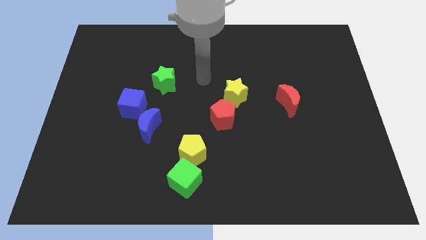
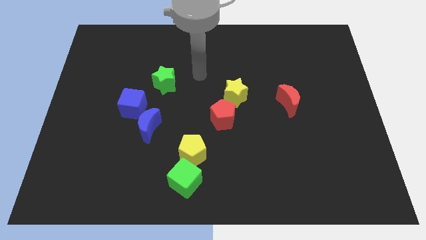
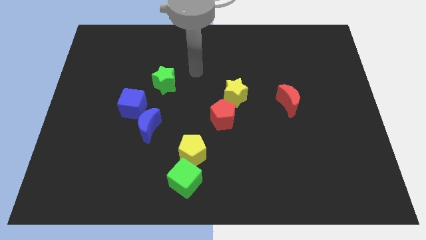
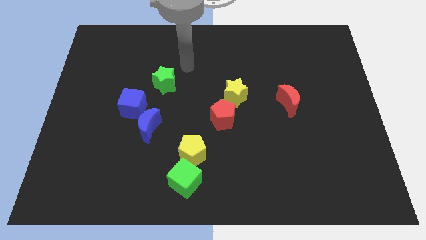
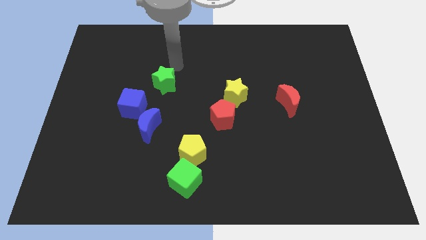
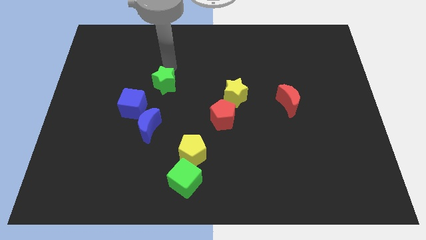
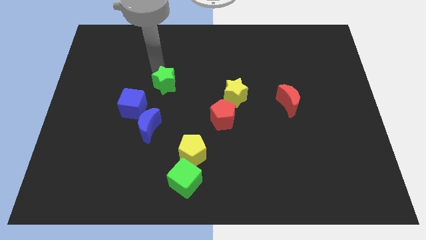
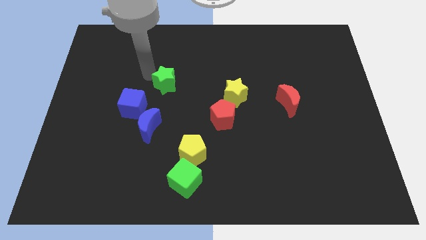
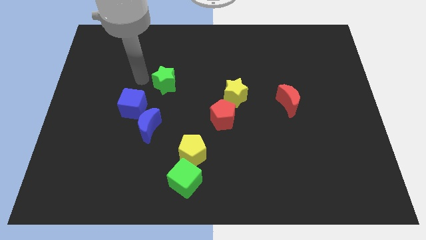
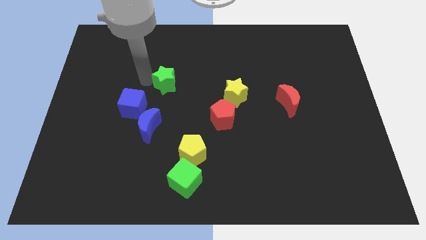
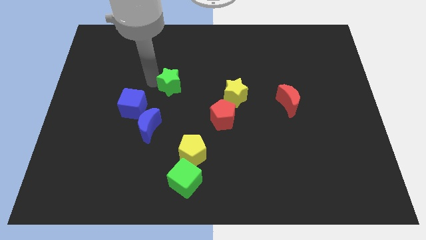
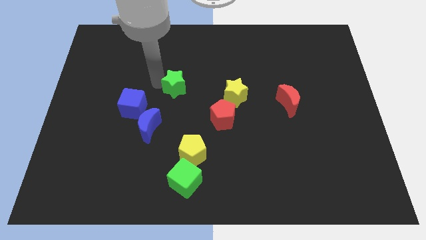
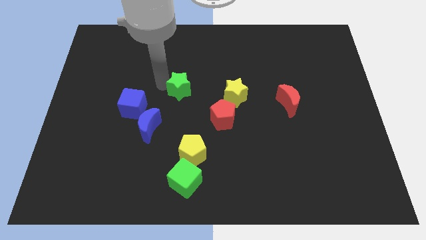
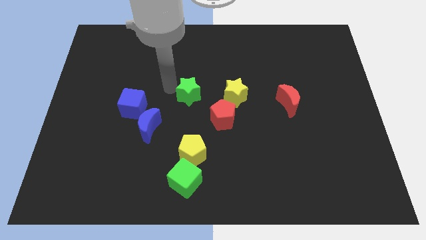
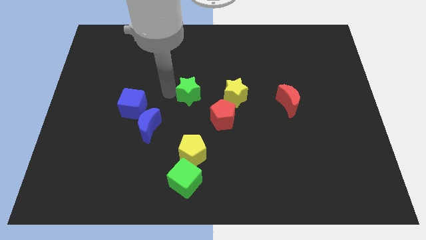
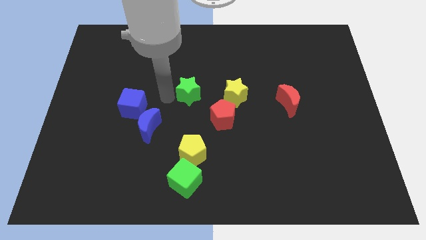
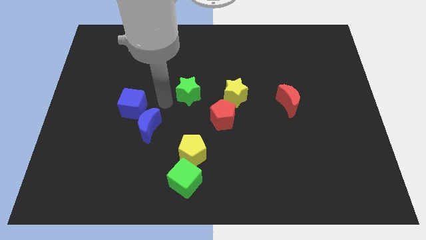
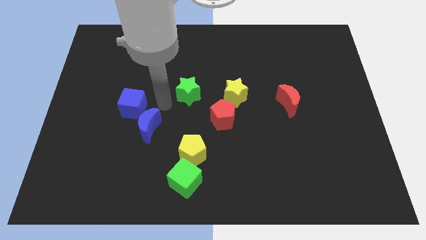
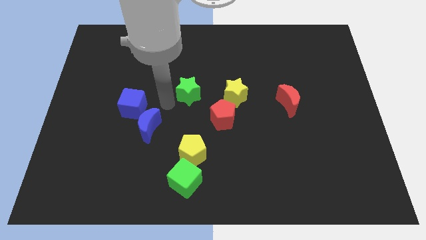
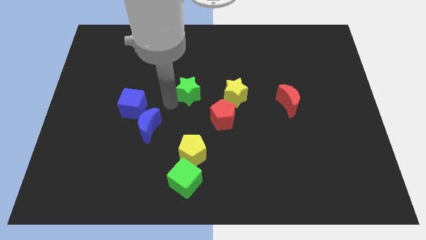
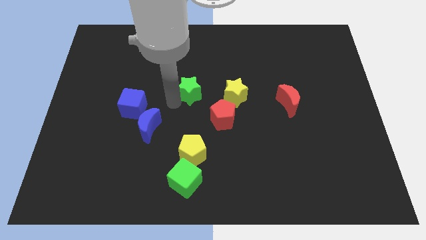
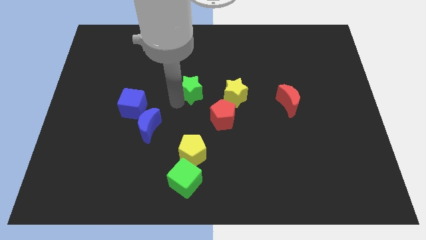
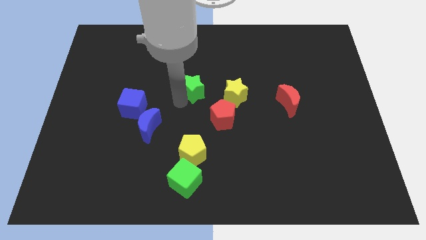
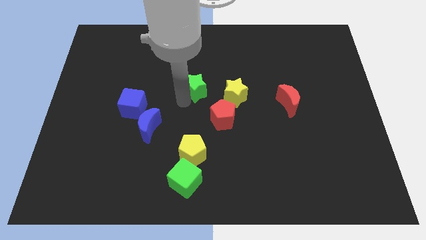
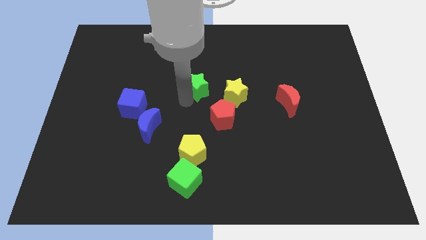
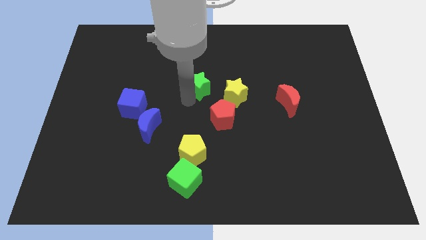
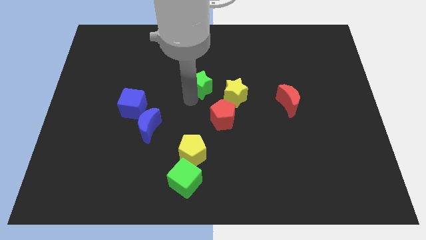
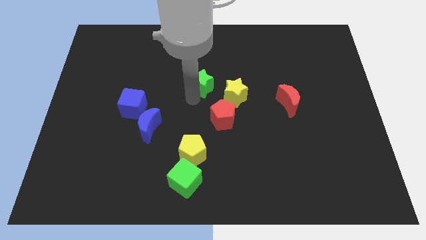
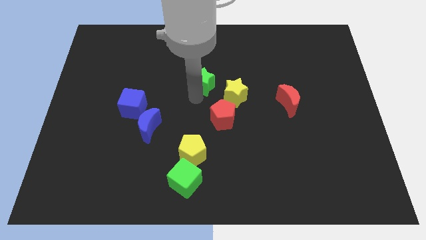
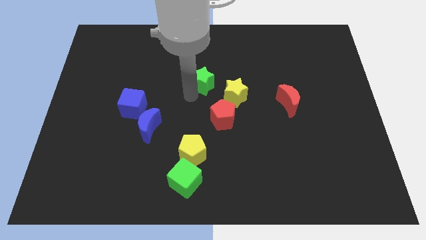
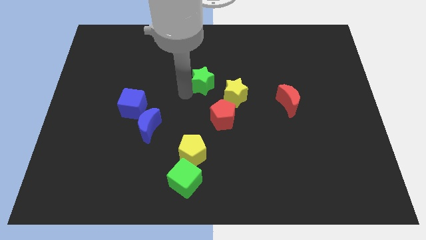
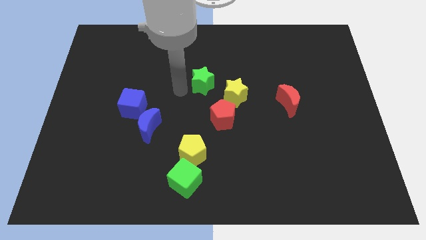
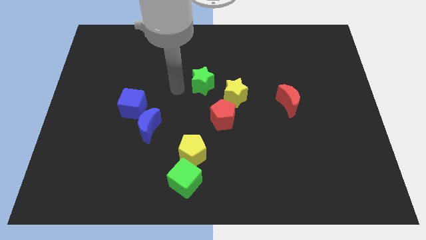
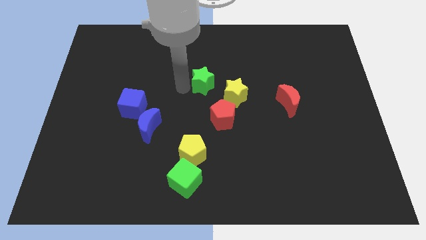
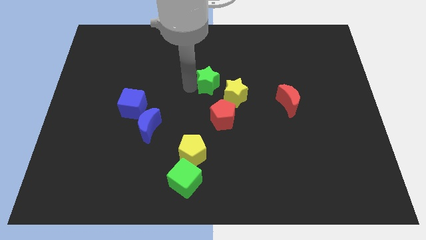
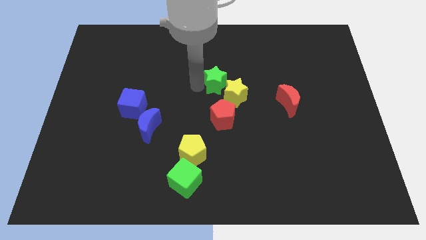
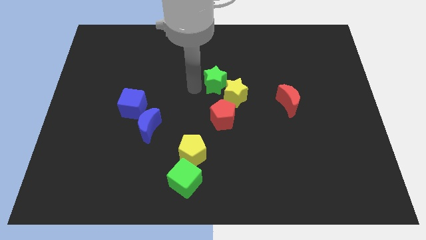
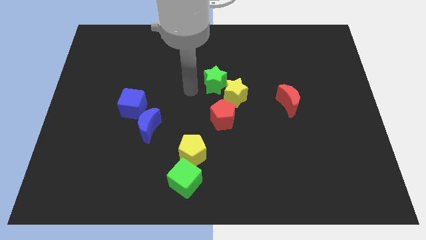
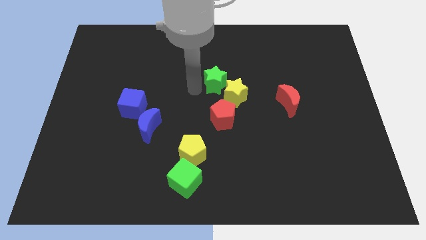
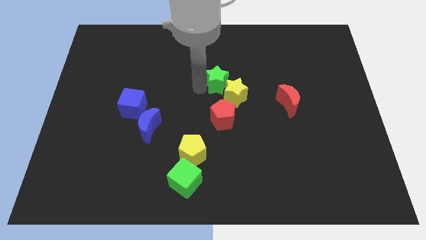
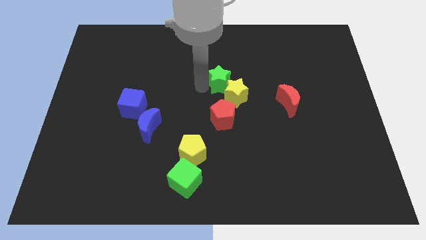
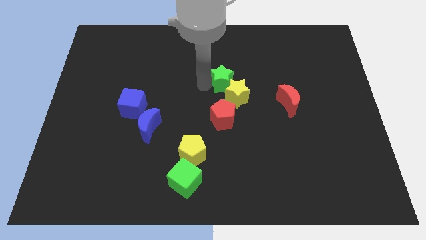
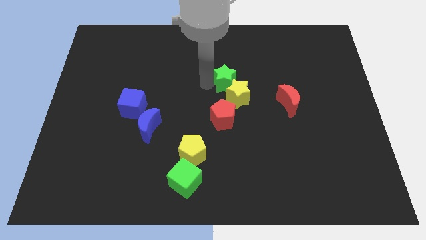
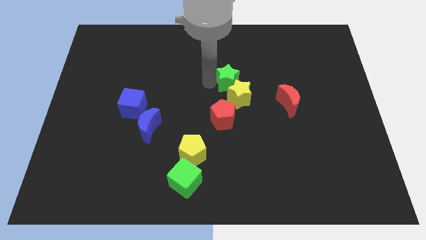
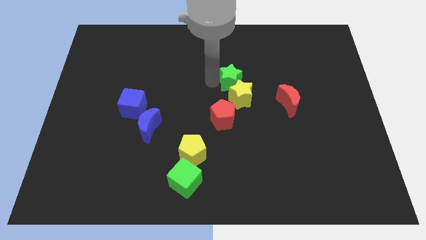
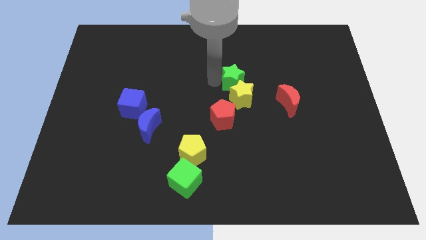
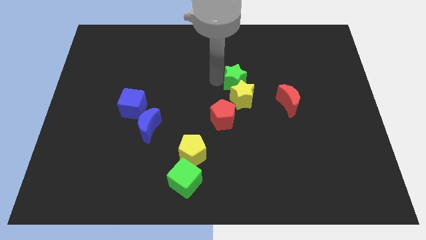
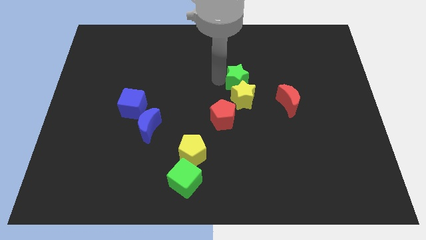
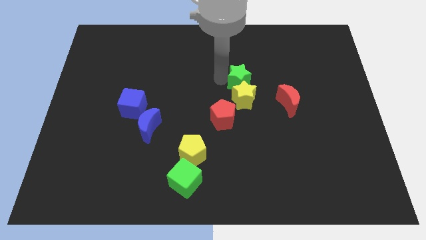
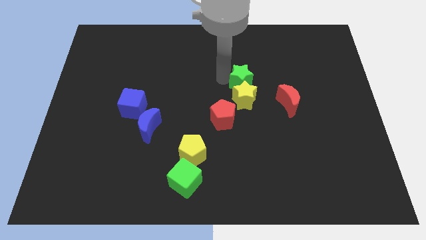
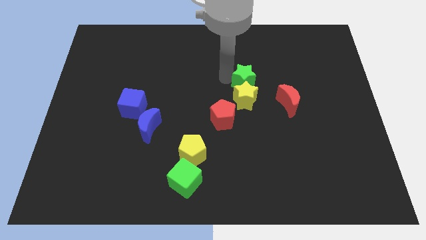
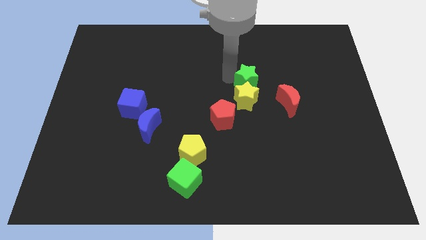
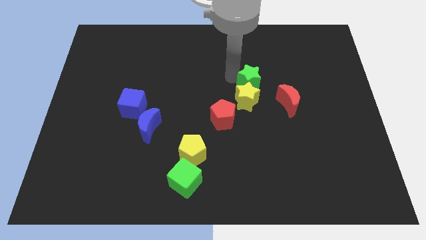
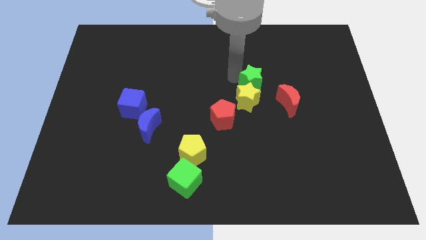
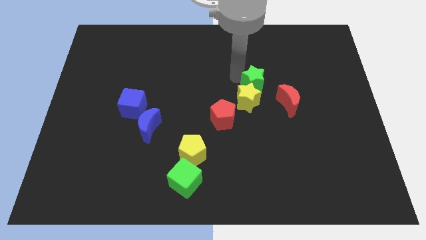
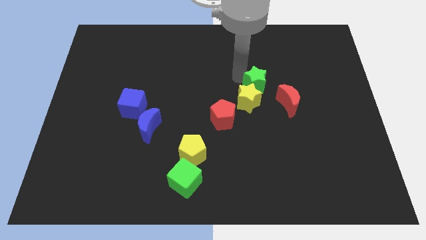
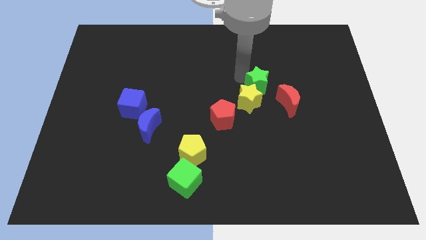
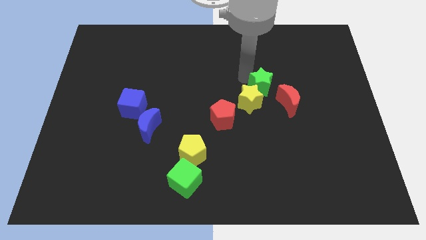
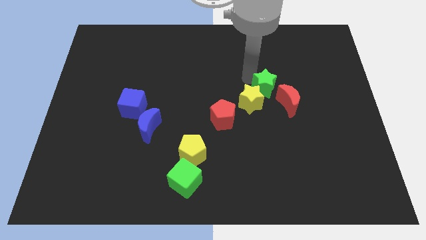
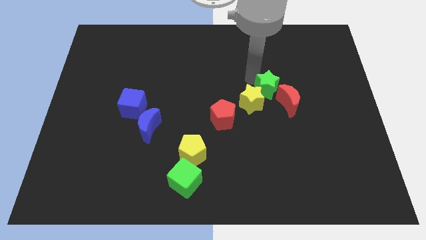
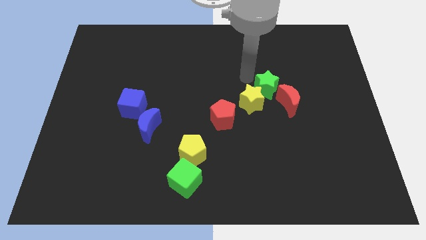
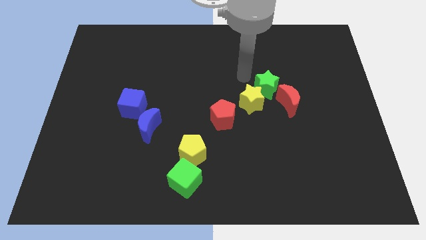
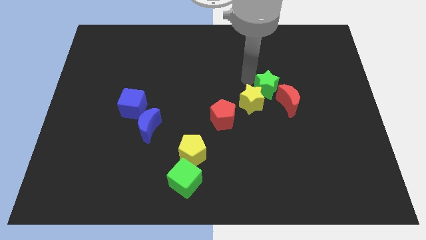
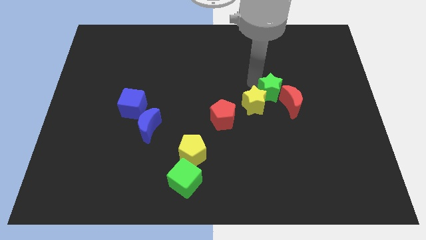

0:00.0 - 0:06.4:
move the green star next to the red moon

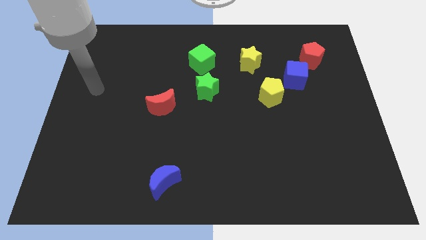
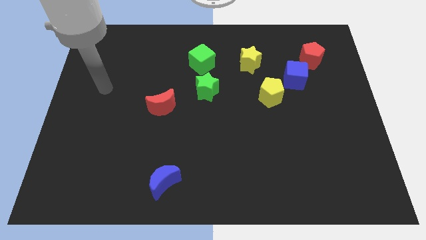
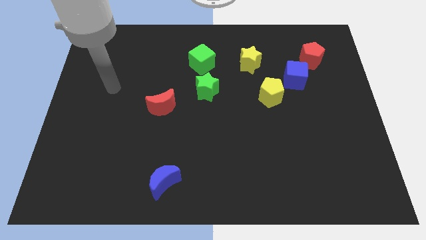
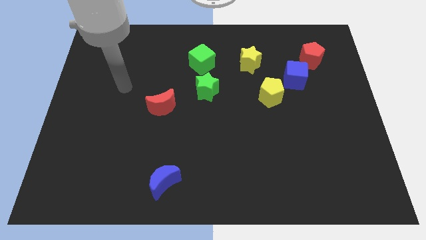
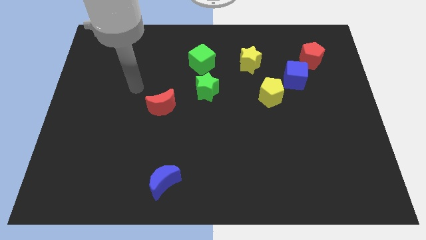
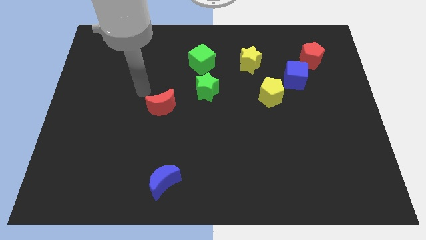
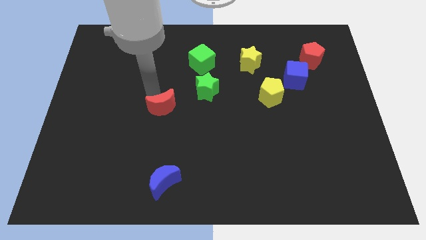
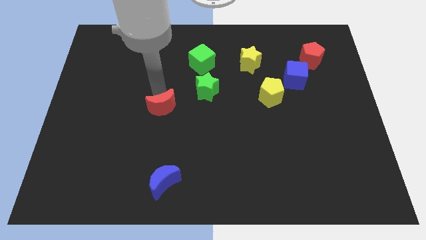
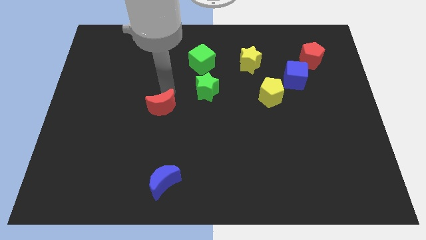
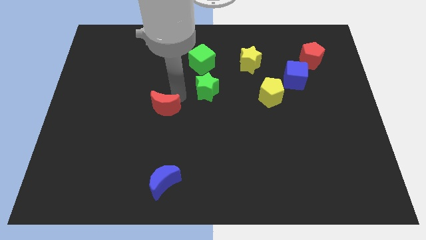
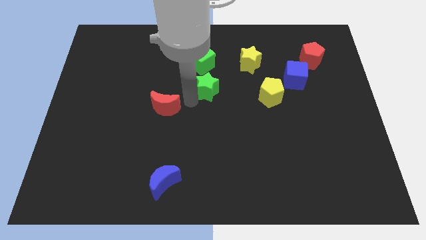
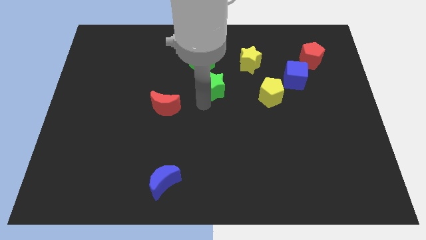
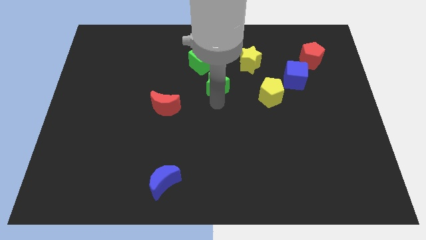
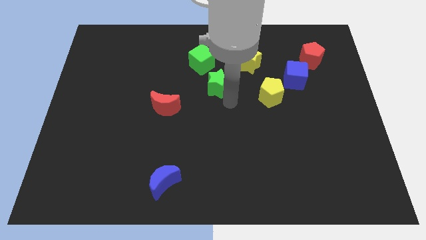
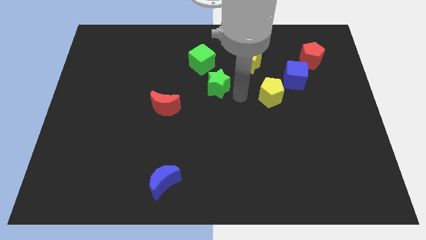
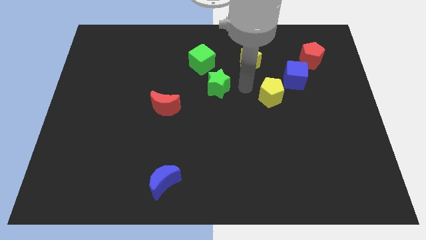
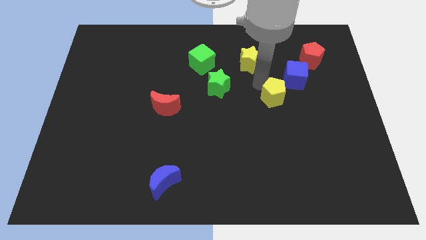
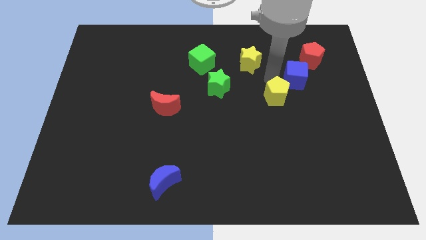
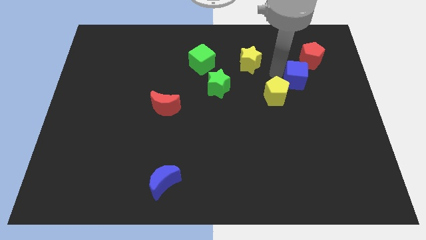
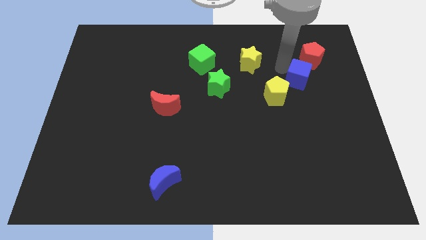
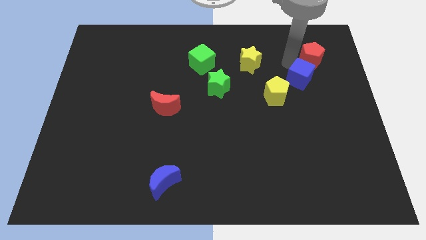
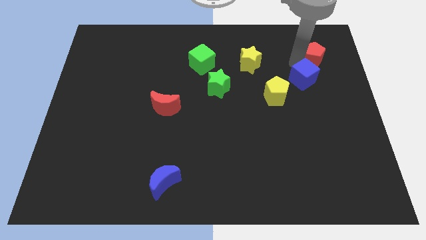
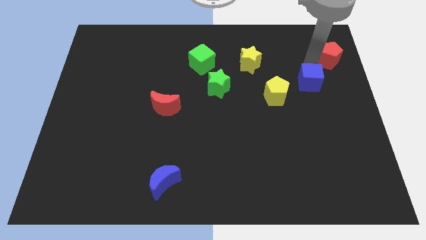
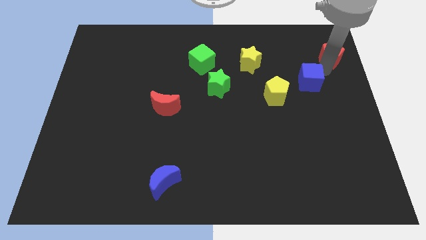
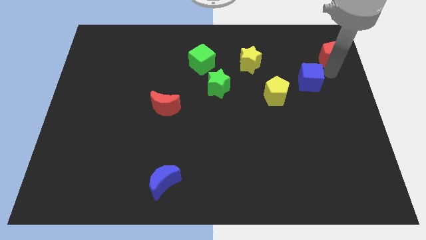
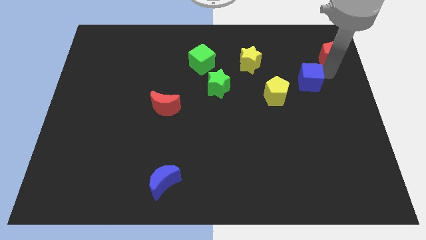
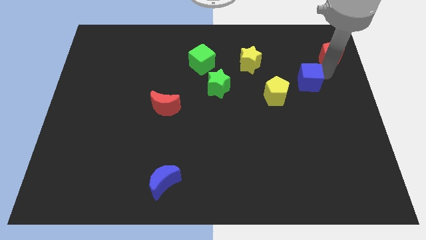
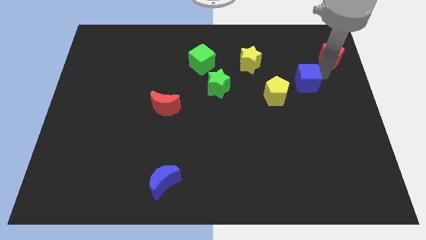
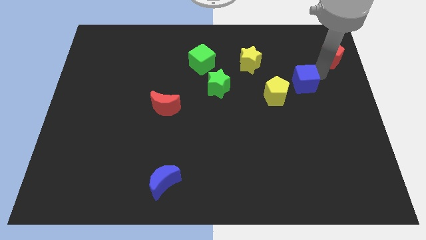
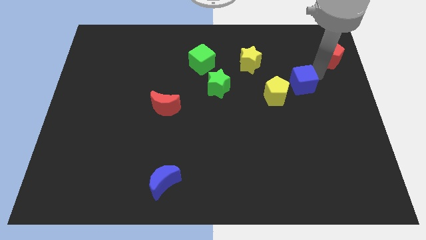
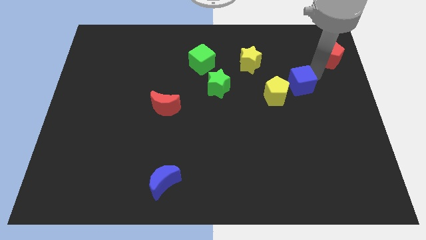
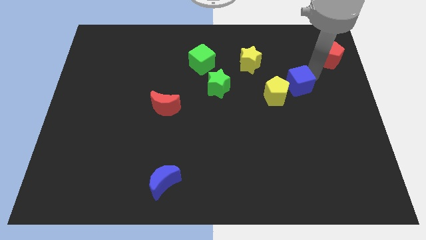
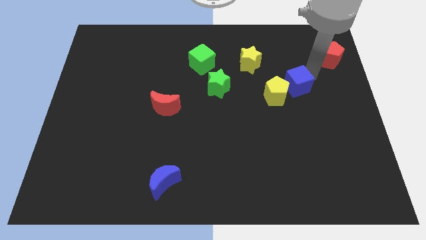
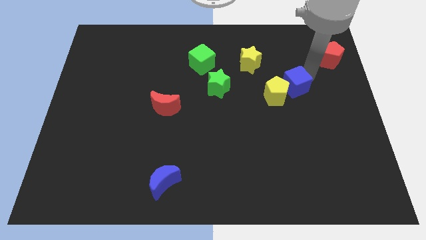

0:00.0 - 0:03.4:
slide the blue cube towards the yellow pentagon
